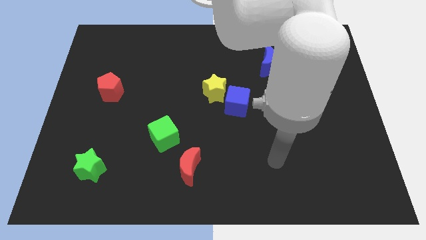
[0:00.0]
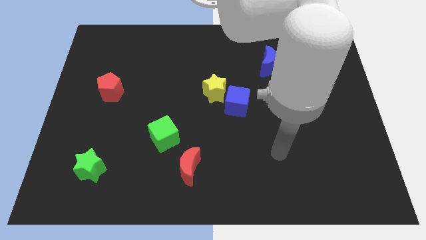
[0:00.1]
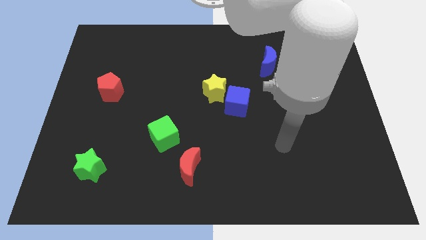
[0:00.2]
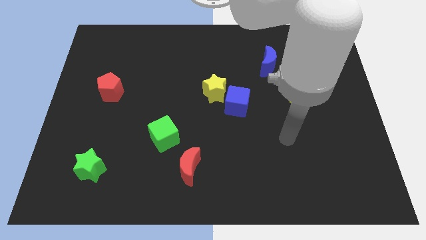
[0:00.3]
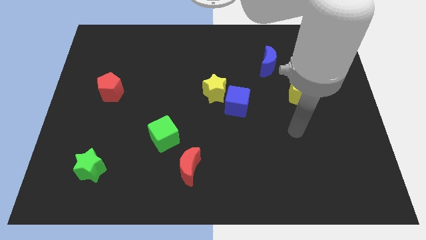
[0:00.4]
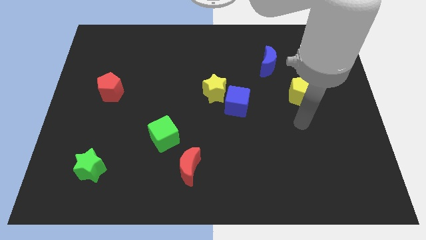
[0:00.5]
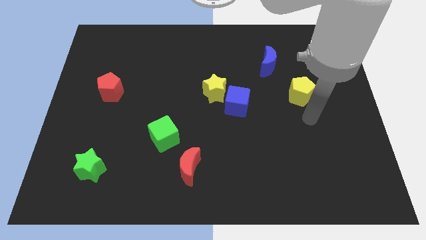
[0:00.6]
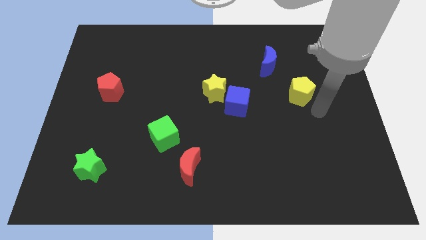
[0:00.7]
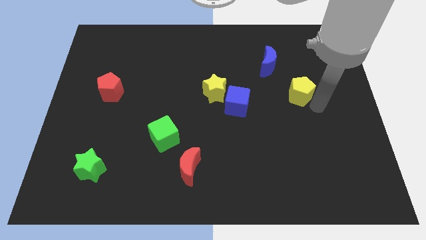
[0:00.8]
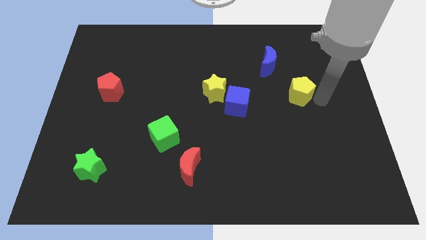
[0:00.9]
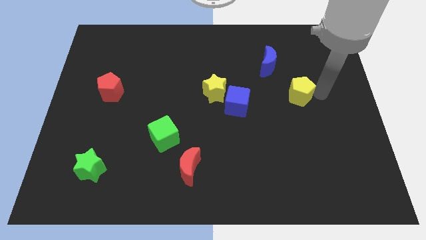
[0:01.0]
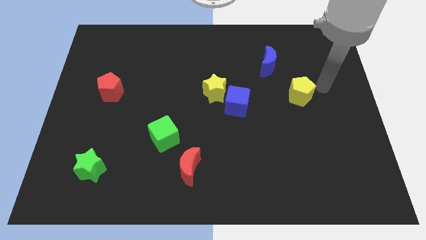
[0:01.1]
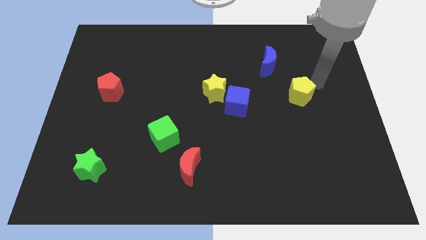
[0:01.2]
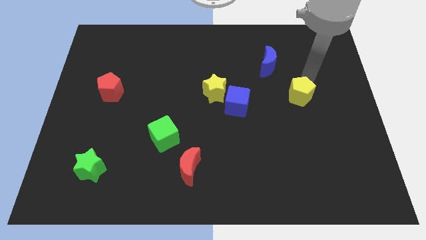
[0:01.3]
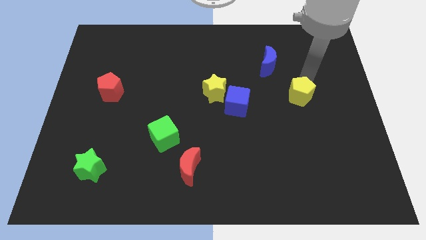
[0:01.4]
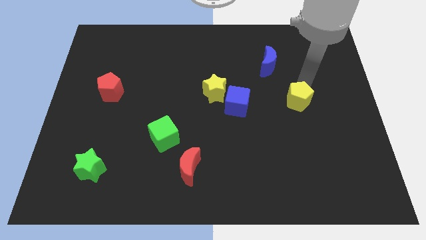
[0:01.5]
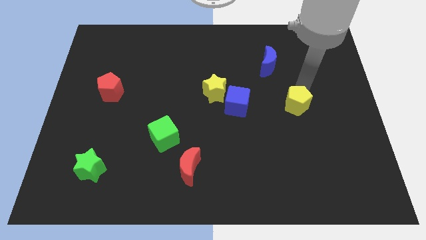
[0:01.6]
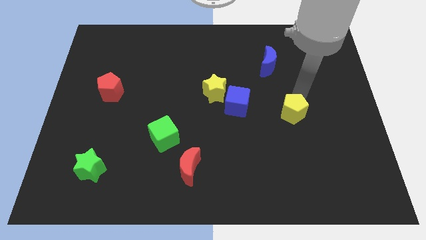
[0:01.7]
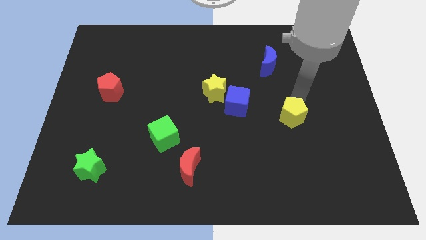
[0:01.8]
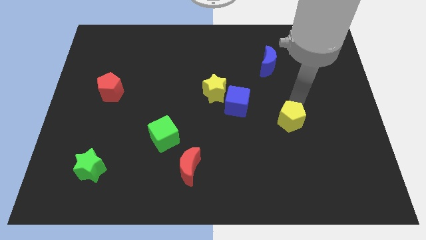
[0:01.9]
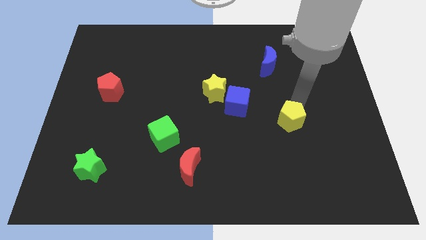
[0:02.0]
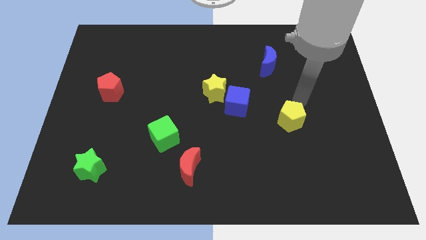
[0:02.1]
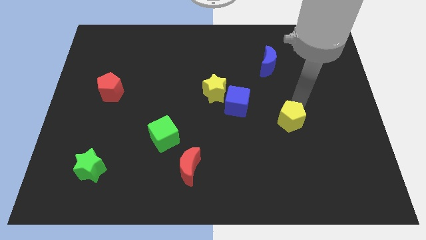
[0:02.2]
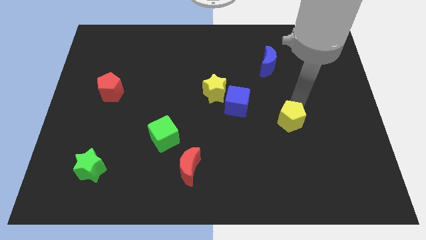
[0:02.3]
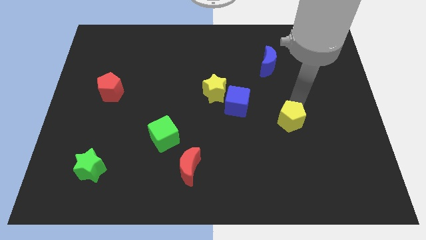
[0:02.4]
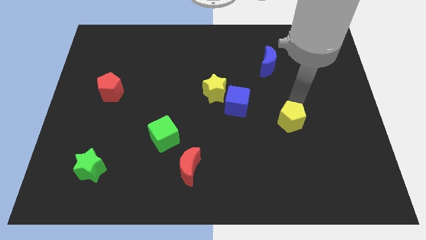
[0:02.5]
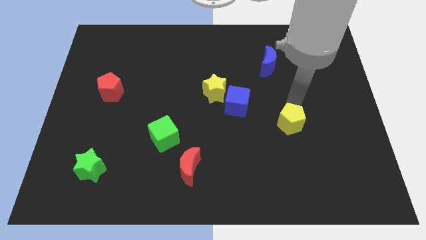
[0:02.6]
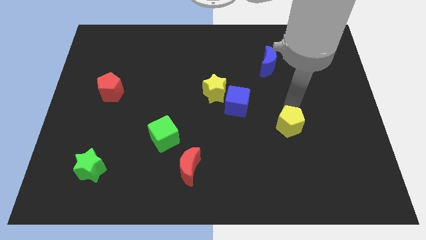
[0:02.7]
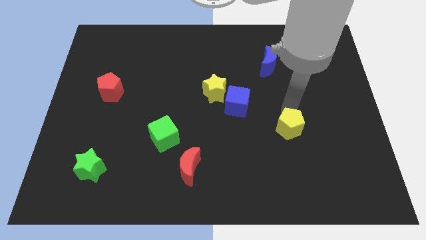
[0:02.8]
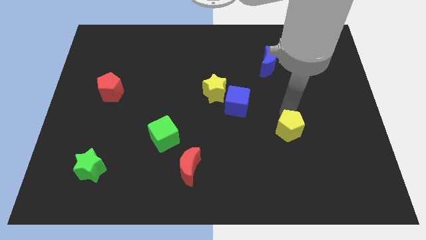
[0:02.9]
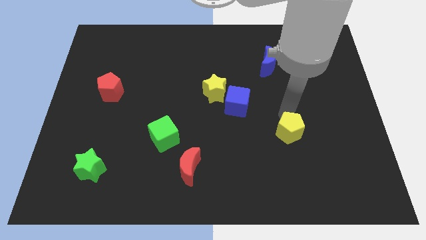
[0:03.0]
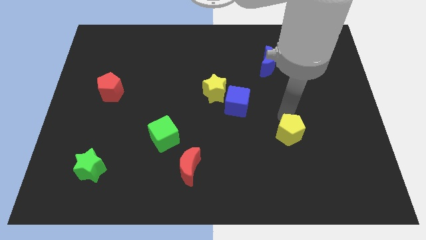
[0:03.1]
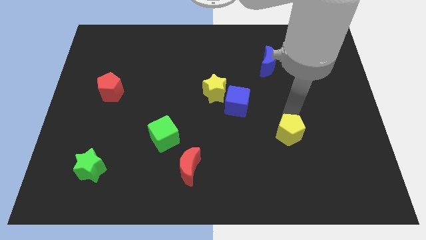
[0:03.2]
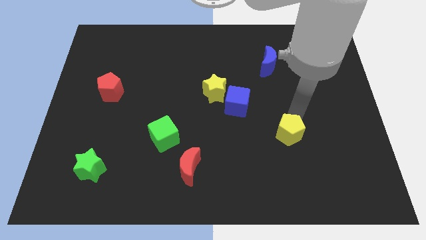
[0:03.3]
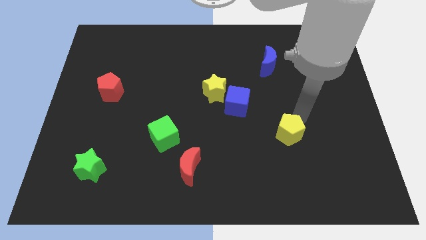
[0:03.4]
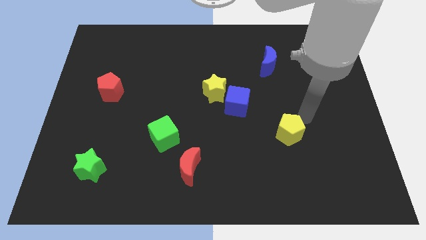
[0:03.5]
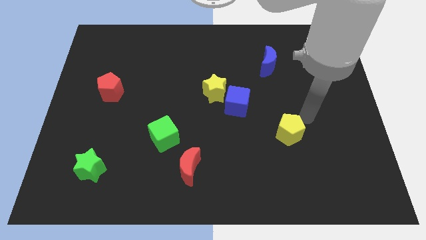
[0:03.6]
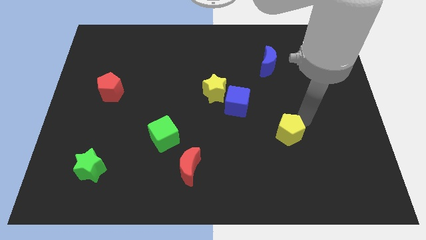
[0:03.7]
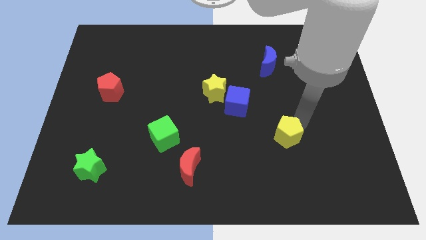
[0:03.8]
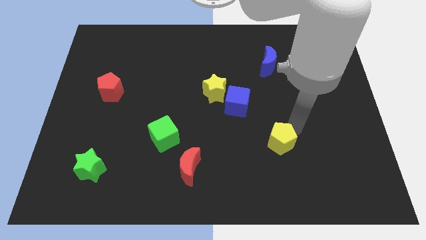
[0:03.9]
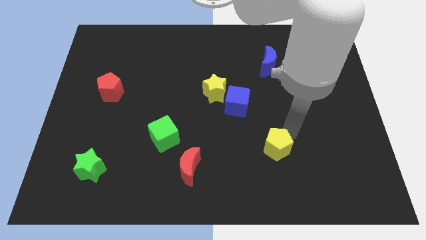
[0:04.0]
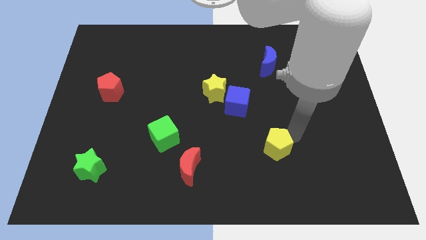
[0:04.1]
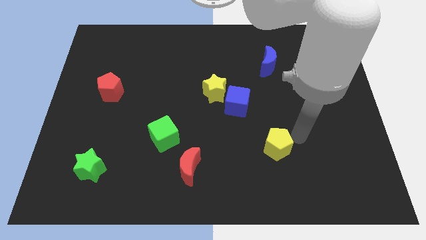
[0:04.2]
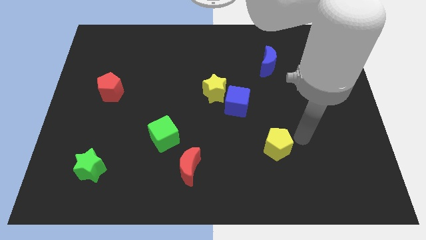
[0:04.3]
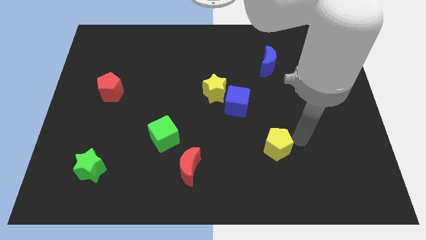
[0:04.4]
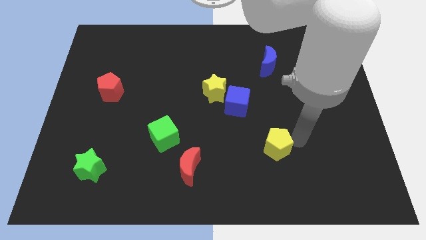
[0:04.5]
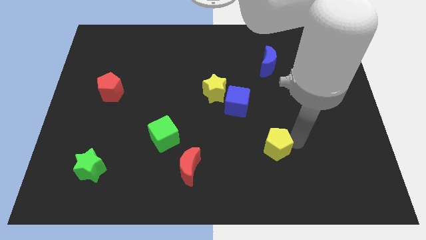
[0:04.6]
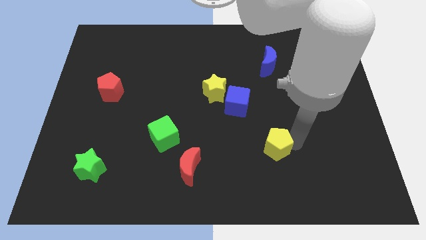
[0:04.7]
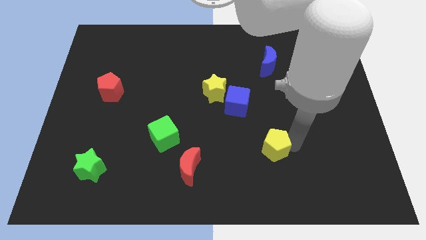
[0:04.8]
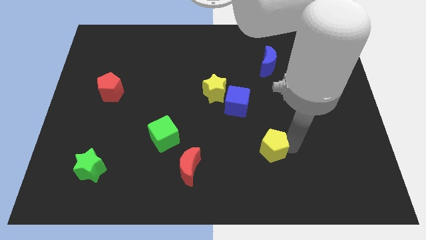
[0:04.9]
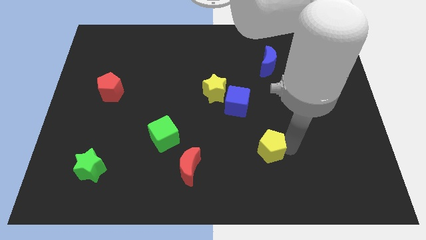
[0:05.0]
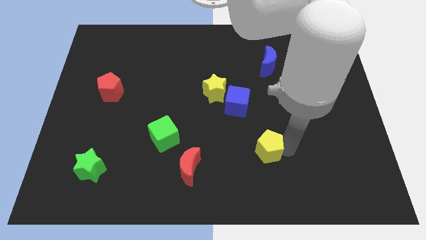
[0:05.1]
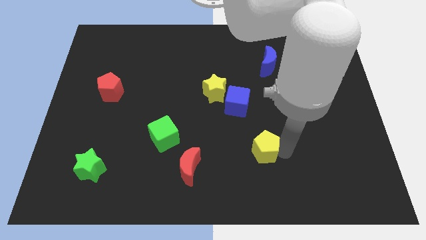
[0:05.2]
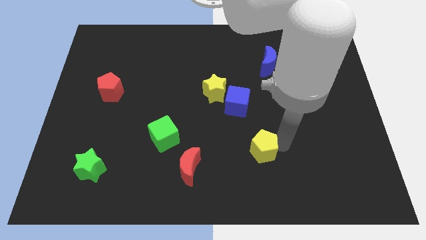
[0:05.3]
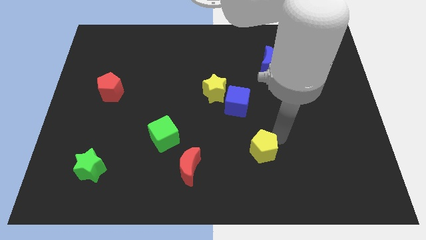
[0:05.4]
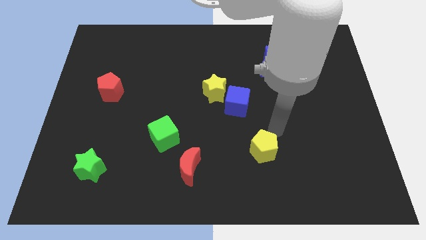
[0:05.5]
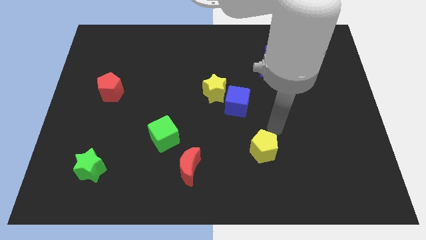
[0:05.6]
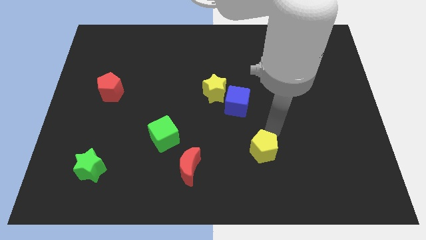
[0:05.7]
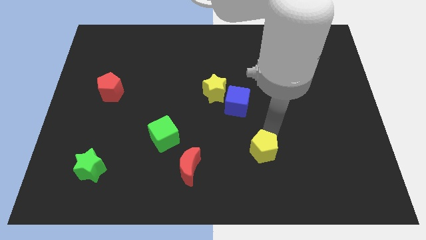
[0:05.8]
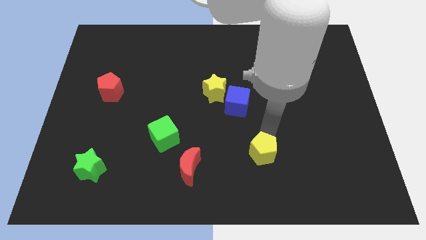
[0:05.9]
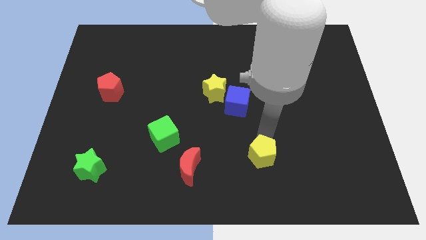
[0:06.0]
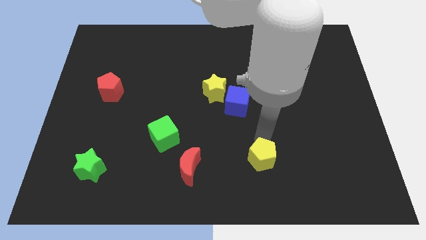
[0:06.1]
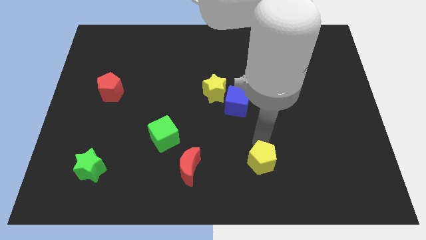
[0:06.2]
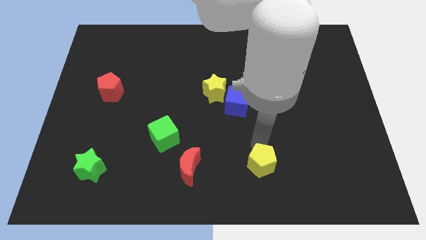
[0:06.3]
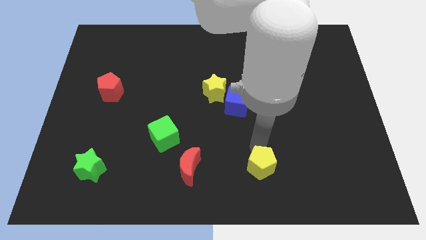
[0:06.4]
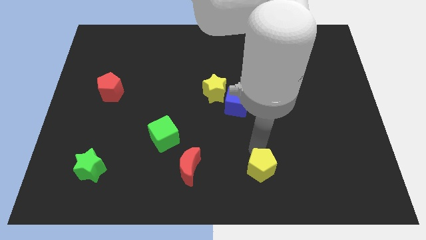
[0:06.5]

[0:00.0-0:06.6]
slide the yellow pentagon to the bottom
